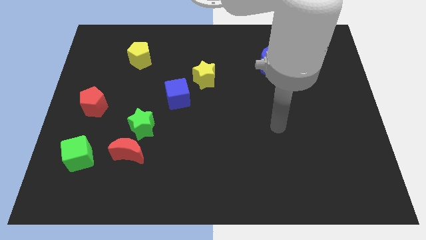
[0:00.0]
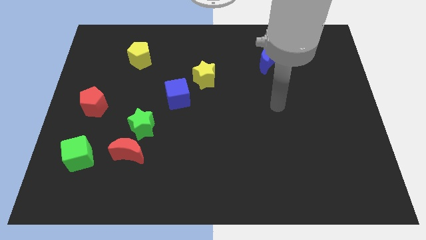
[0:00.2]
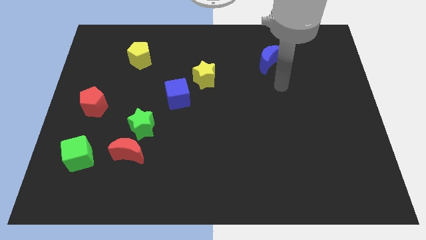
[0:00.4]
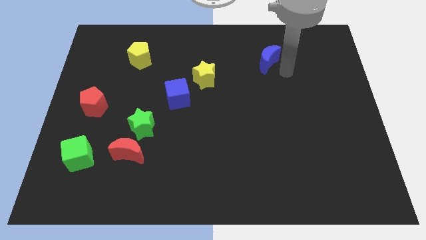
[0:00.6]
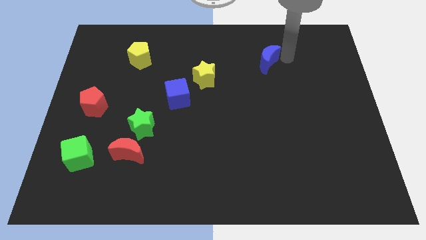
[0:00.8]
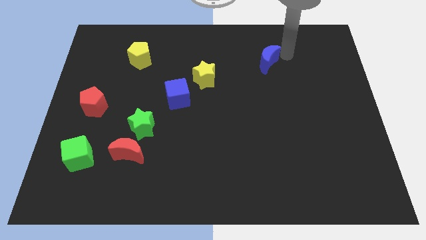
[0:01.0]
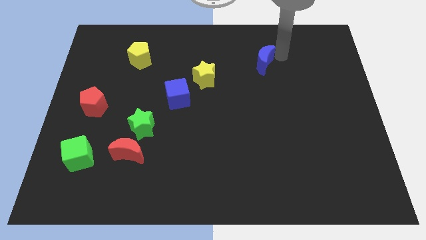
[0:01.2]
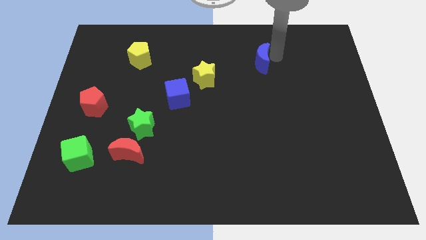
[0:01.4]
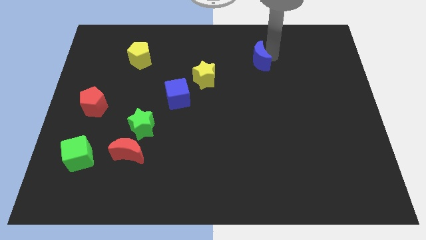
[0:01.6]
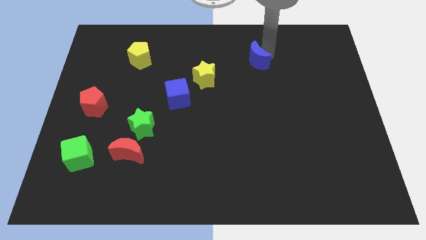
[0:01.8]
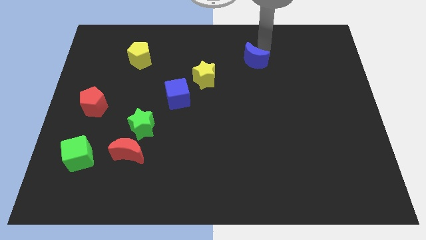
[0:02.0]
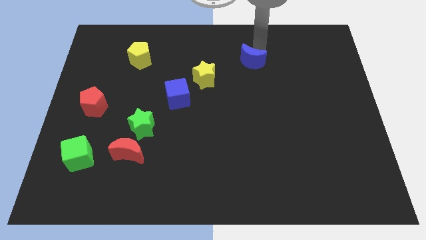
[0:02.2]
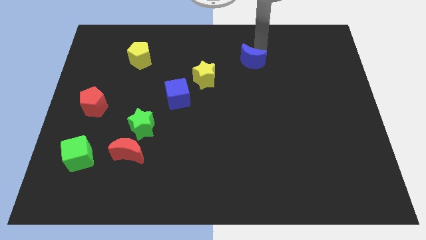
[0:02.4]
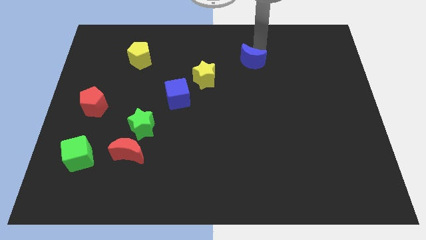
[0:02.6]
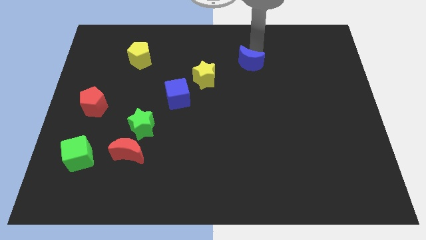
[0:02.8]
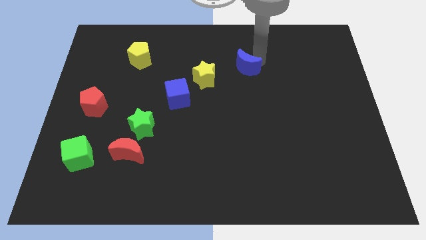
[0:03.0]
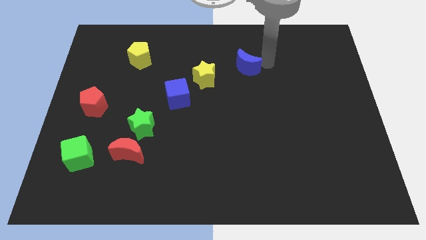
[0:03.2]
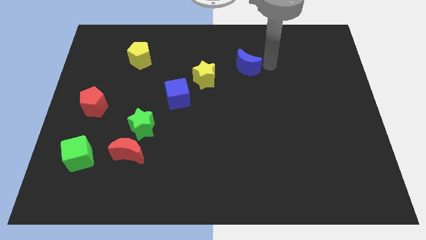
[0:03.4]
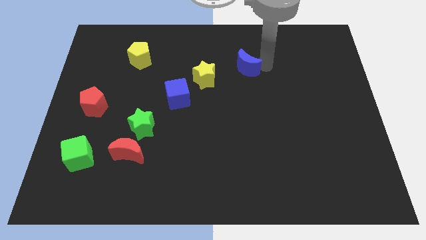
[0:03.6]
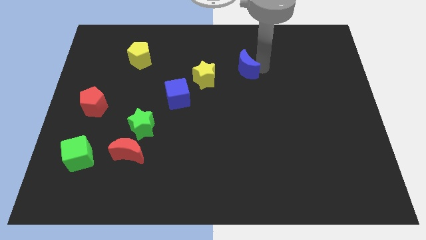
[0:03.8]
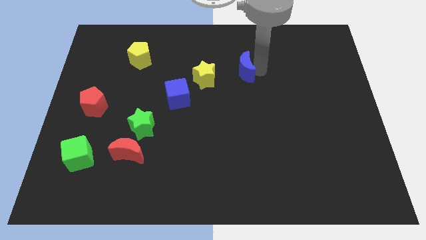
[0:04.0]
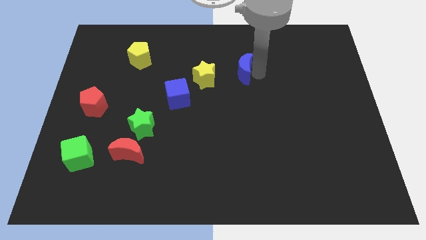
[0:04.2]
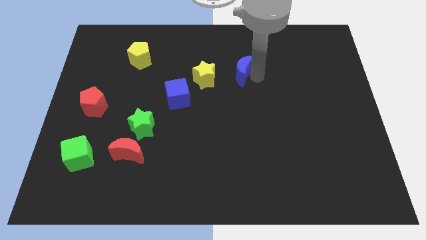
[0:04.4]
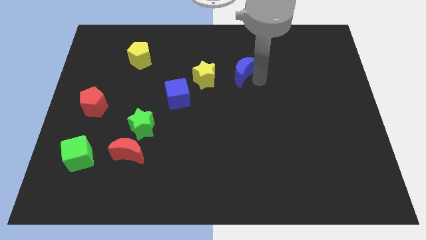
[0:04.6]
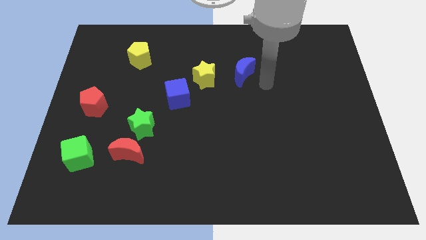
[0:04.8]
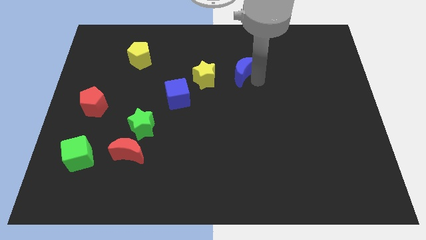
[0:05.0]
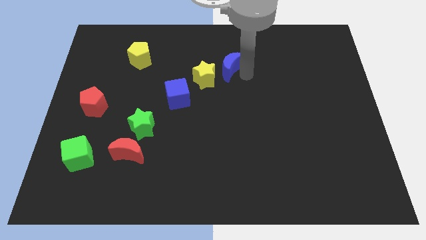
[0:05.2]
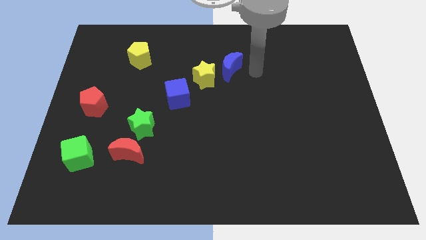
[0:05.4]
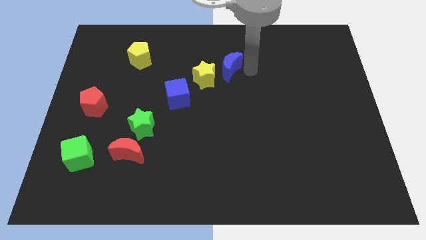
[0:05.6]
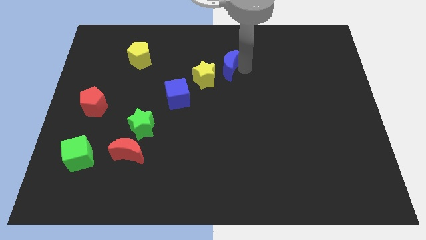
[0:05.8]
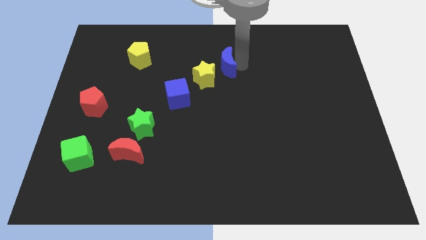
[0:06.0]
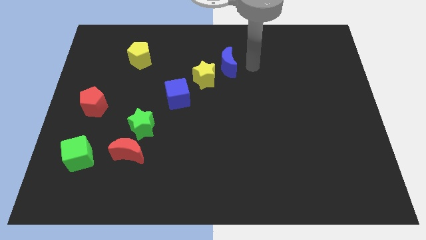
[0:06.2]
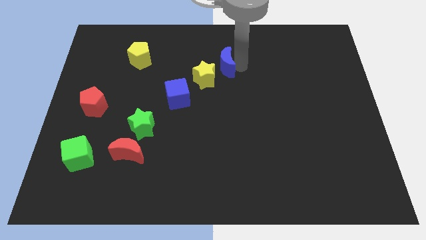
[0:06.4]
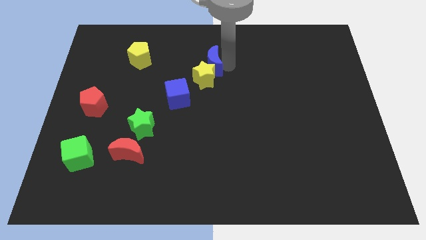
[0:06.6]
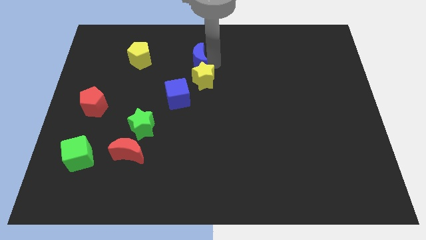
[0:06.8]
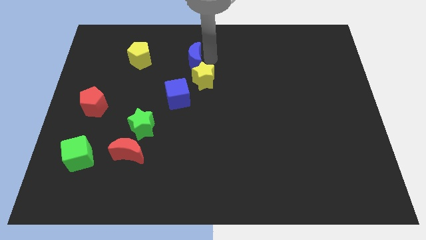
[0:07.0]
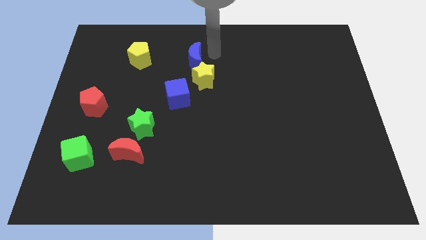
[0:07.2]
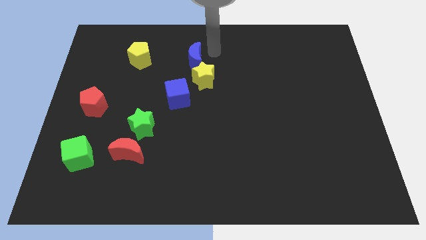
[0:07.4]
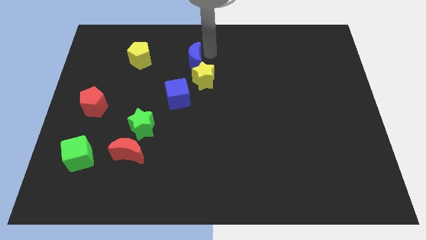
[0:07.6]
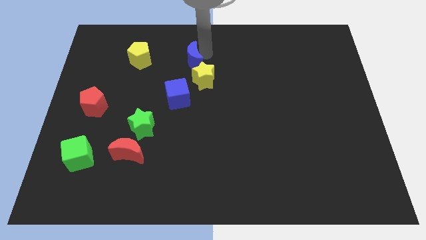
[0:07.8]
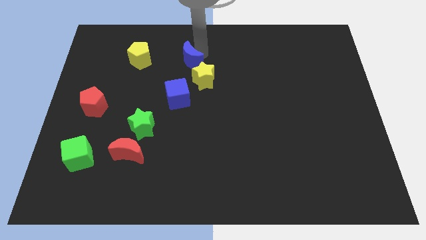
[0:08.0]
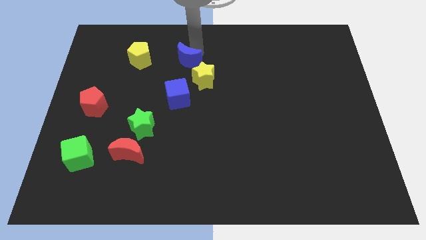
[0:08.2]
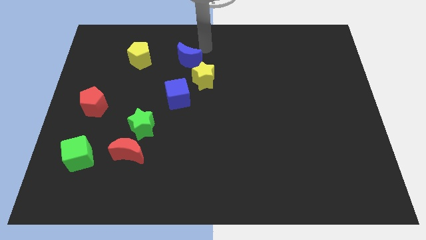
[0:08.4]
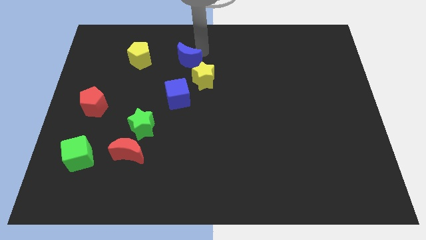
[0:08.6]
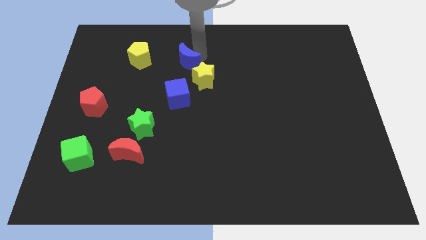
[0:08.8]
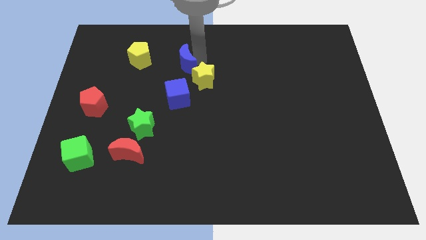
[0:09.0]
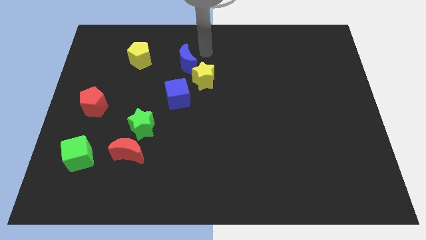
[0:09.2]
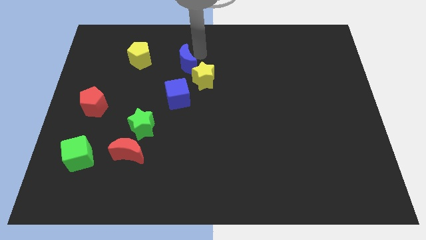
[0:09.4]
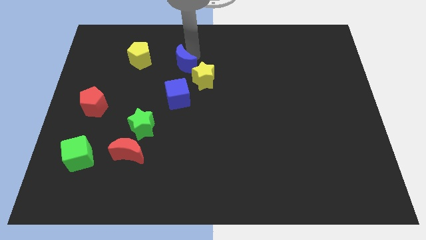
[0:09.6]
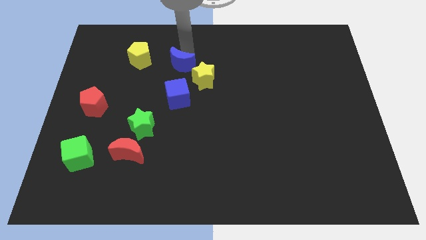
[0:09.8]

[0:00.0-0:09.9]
slide the blue moon just left of the yellow star

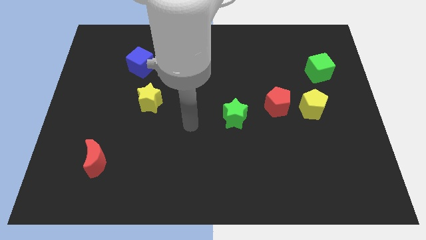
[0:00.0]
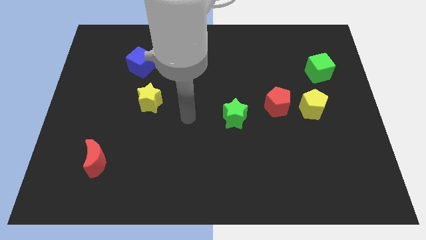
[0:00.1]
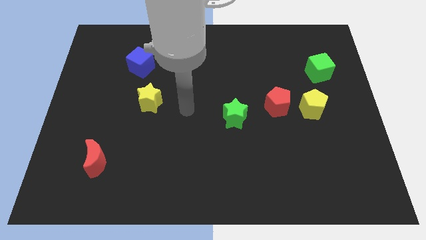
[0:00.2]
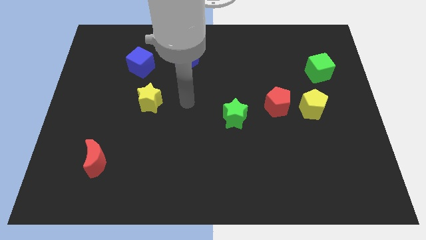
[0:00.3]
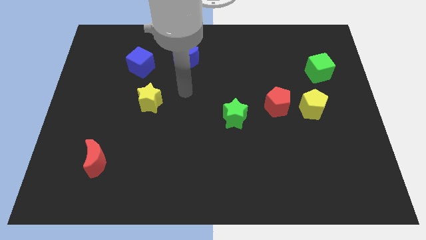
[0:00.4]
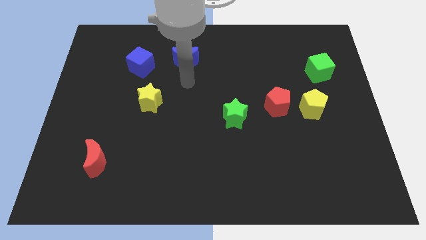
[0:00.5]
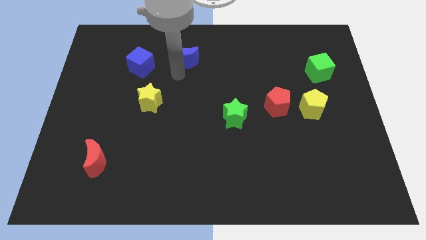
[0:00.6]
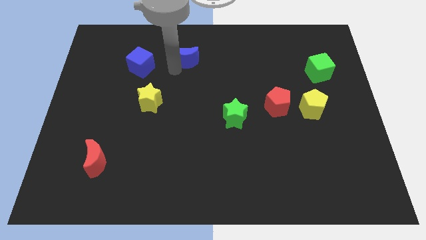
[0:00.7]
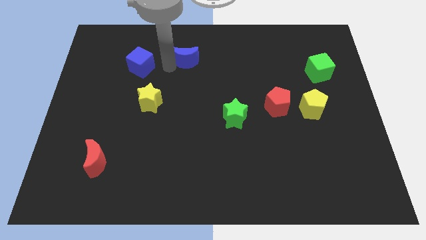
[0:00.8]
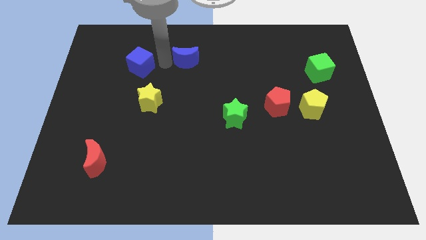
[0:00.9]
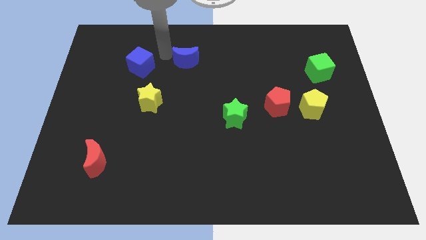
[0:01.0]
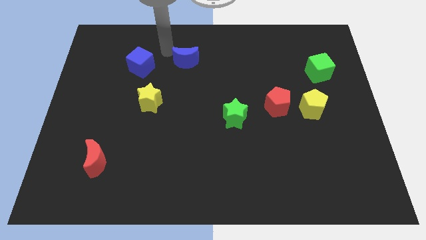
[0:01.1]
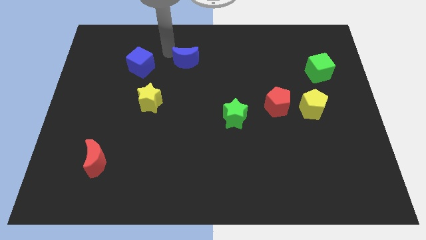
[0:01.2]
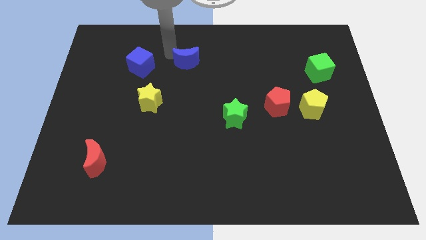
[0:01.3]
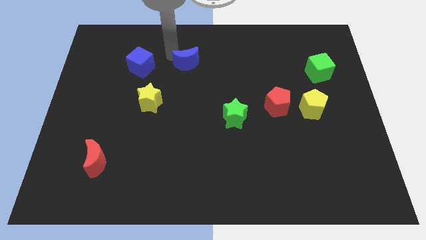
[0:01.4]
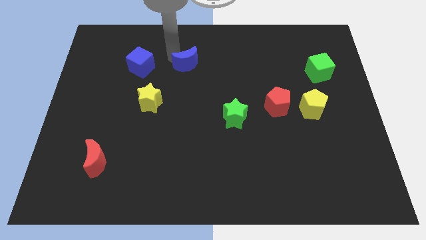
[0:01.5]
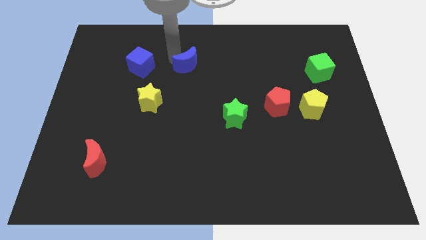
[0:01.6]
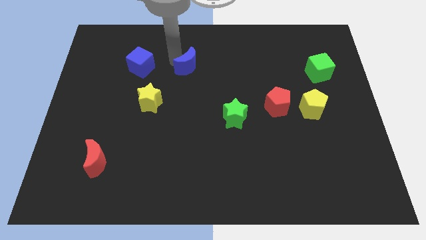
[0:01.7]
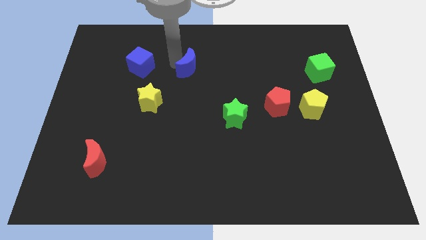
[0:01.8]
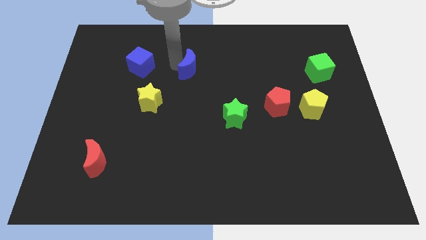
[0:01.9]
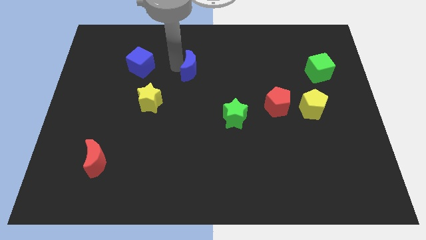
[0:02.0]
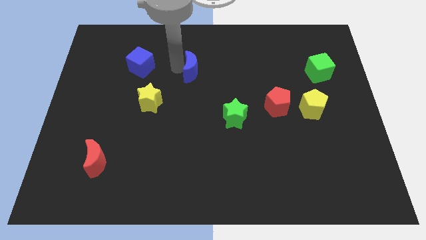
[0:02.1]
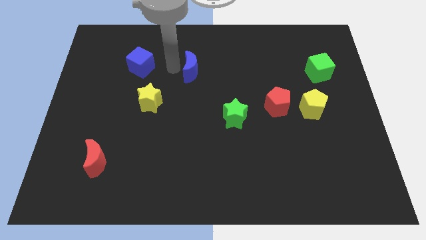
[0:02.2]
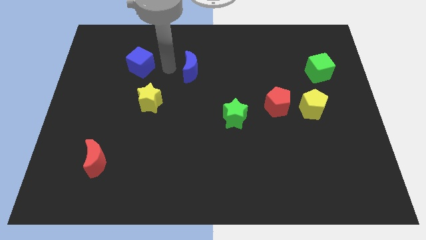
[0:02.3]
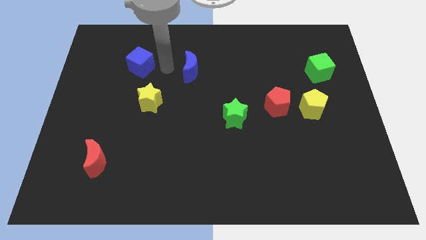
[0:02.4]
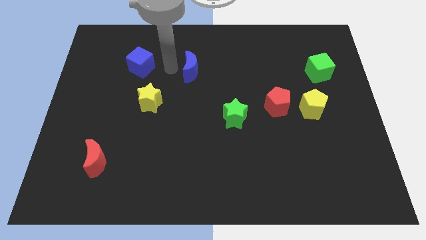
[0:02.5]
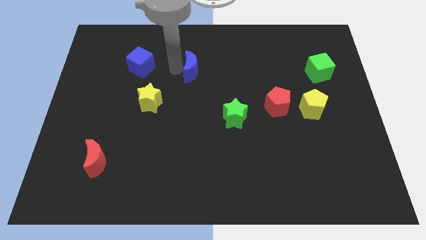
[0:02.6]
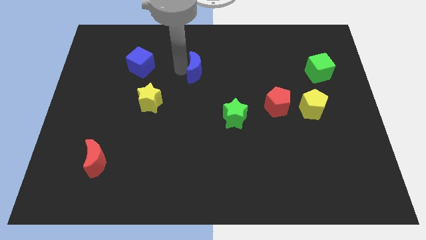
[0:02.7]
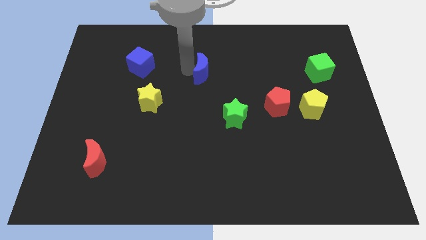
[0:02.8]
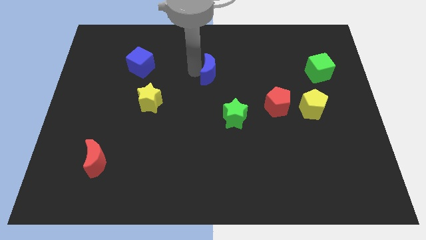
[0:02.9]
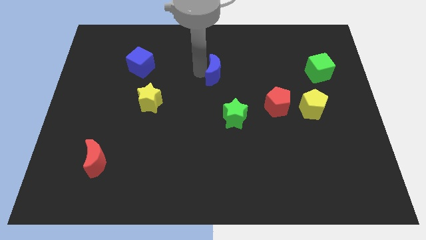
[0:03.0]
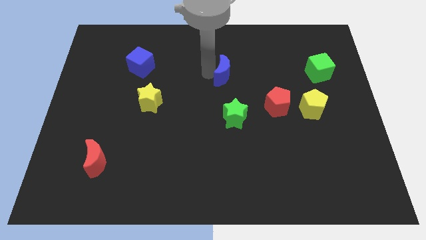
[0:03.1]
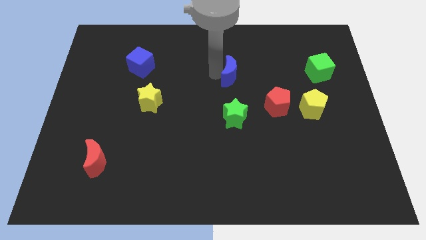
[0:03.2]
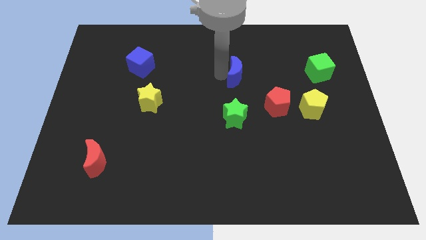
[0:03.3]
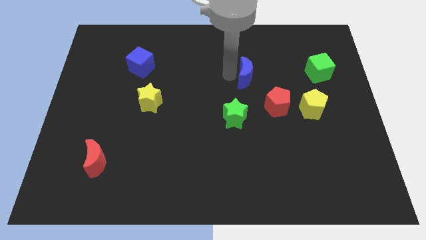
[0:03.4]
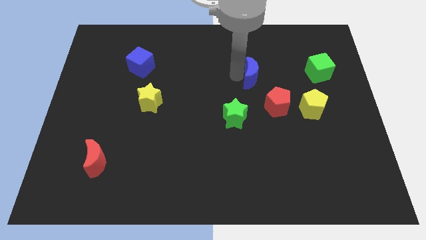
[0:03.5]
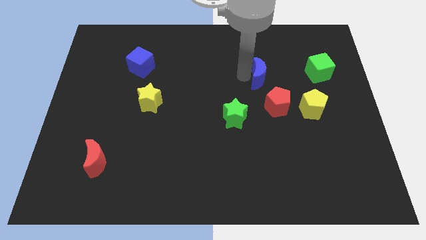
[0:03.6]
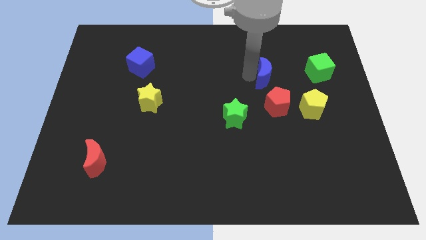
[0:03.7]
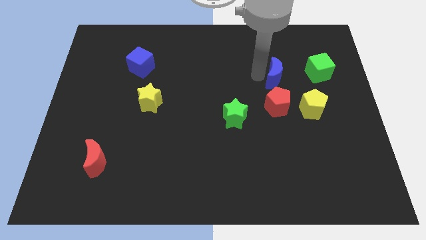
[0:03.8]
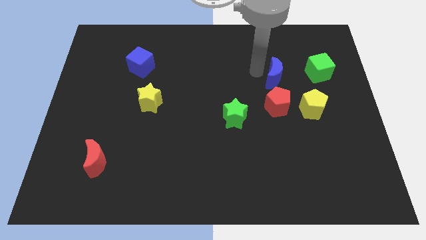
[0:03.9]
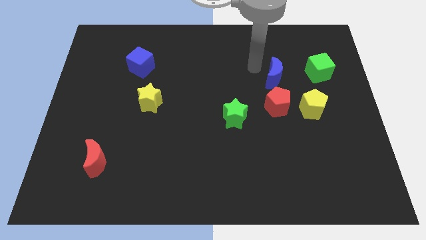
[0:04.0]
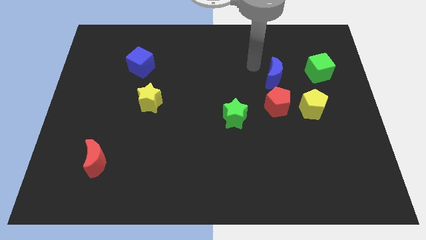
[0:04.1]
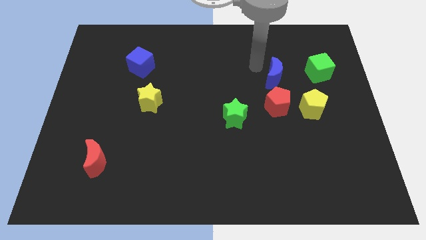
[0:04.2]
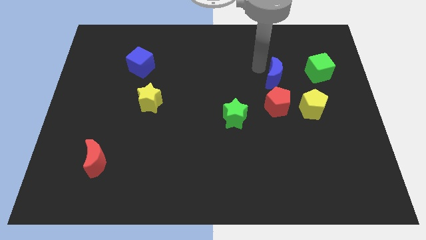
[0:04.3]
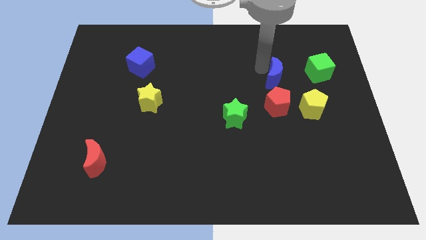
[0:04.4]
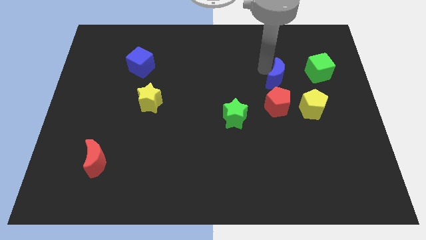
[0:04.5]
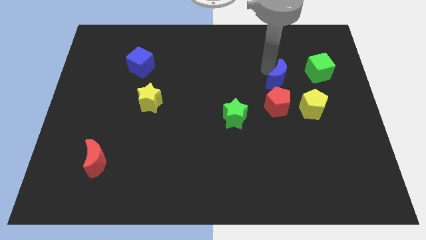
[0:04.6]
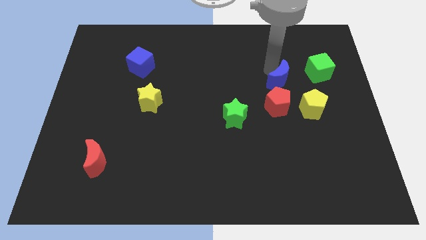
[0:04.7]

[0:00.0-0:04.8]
push the blue moon diagonally up and to the right of the red pentagon
